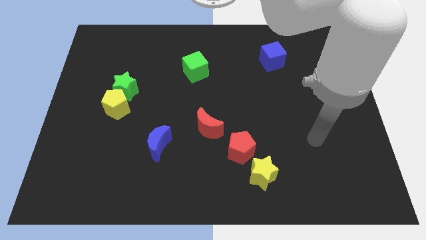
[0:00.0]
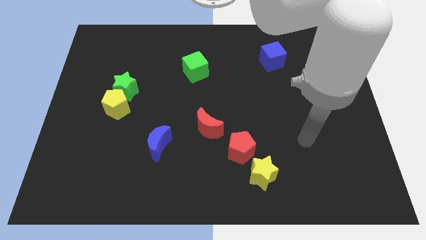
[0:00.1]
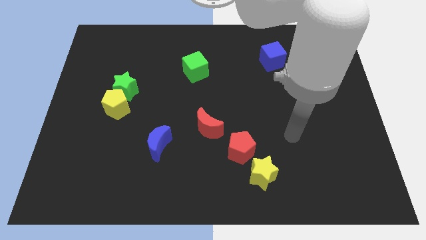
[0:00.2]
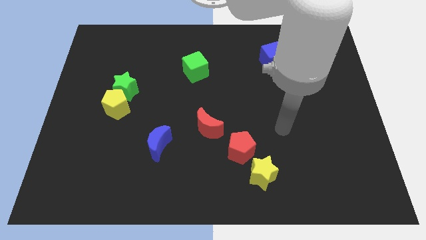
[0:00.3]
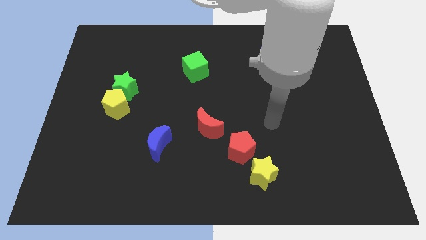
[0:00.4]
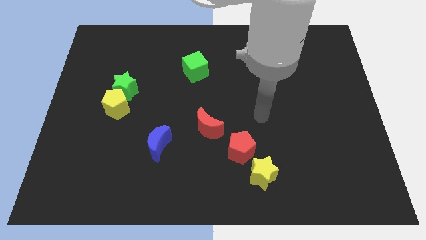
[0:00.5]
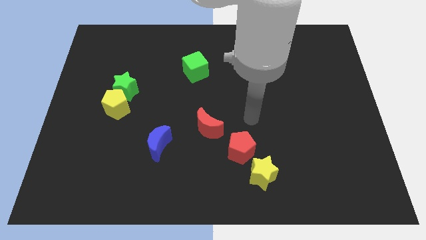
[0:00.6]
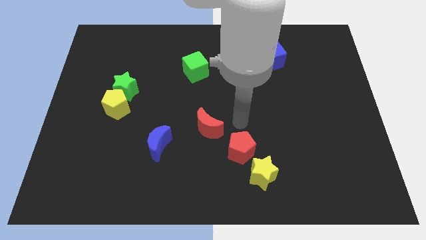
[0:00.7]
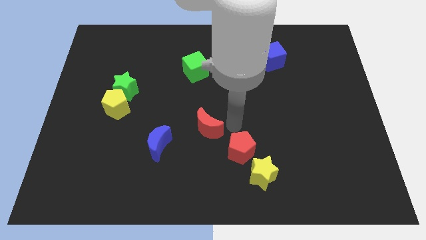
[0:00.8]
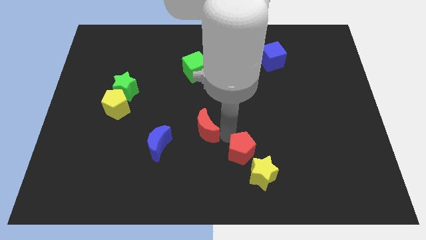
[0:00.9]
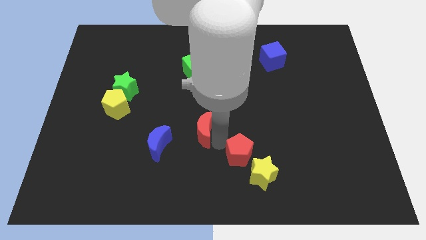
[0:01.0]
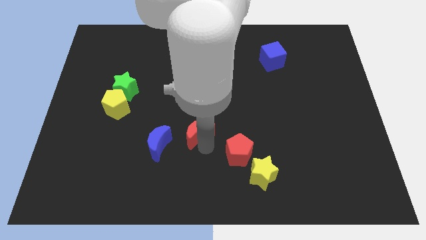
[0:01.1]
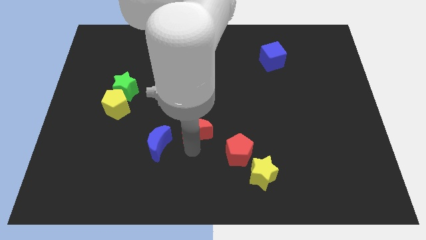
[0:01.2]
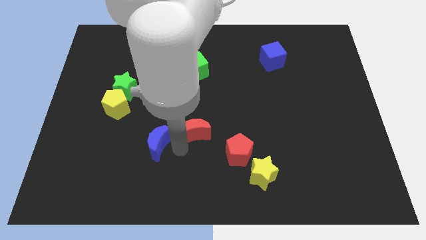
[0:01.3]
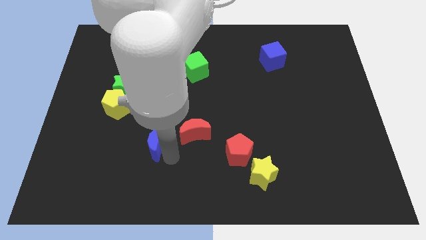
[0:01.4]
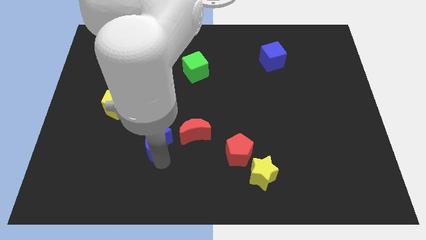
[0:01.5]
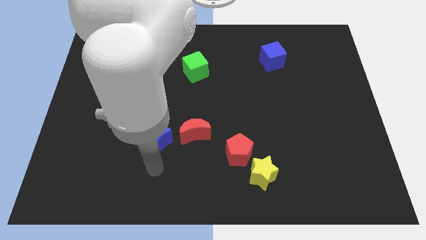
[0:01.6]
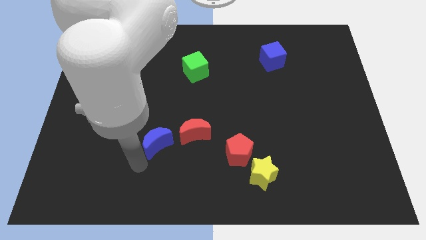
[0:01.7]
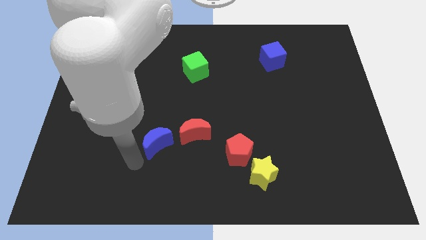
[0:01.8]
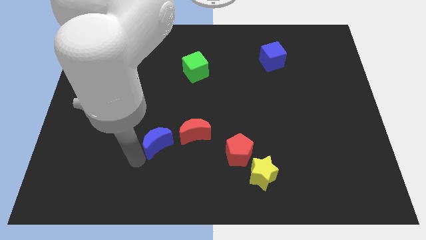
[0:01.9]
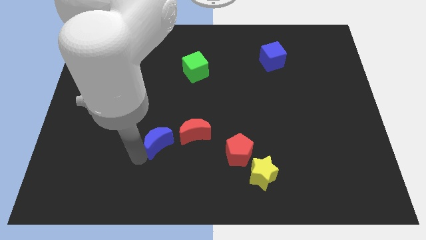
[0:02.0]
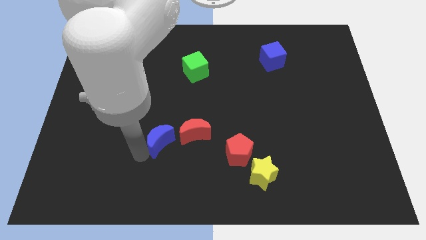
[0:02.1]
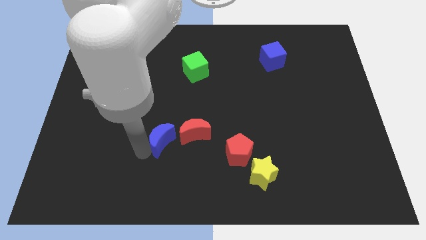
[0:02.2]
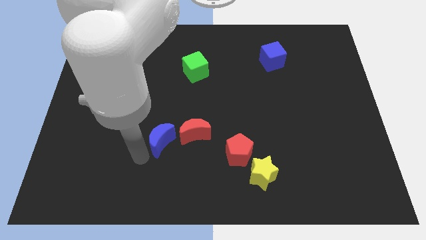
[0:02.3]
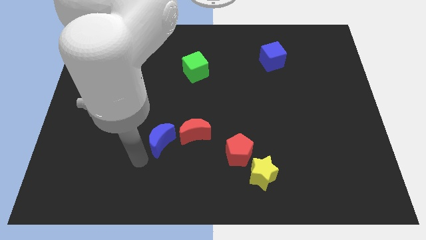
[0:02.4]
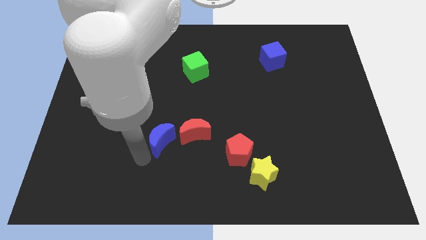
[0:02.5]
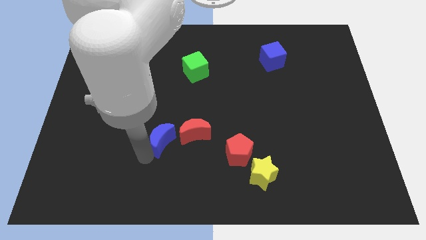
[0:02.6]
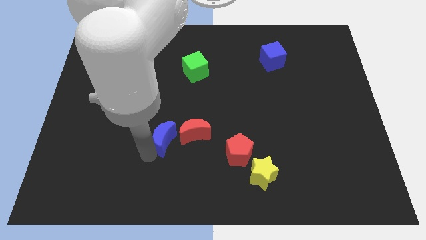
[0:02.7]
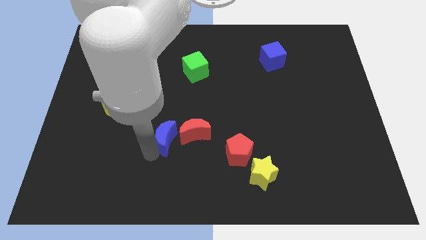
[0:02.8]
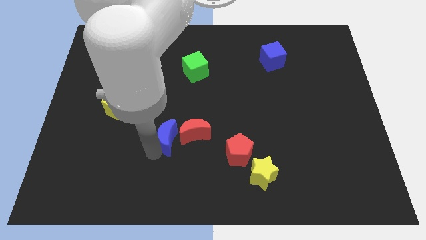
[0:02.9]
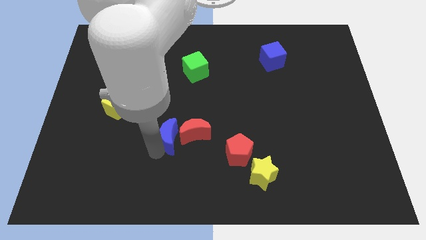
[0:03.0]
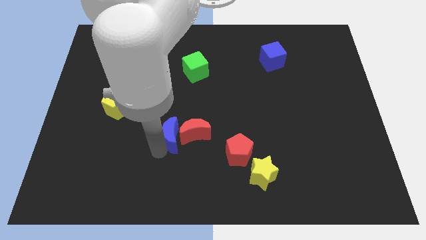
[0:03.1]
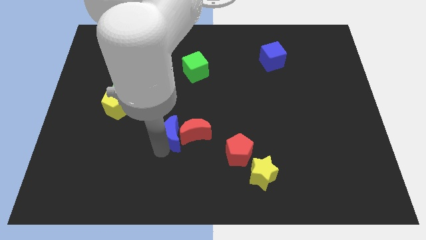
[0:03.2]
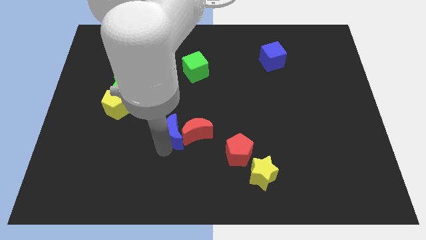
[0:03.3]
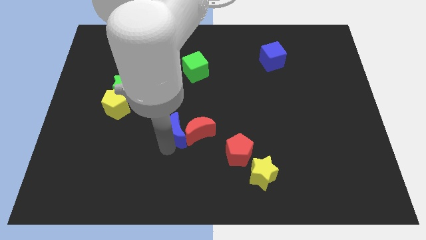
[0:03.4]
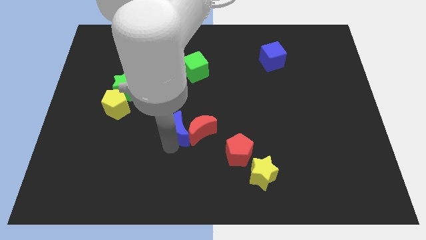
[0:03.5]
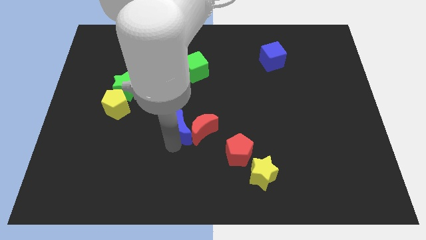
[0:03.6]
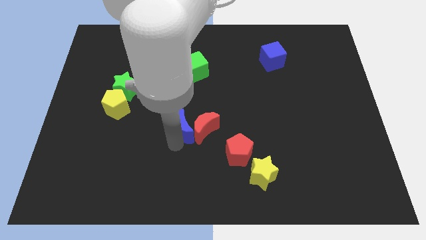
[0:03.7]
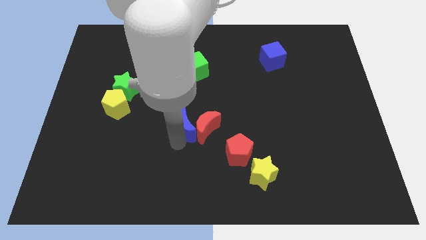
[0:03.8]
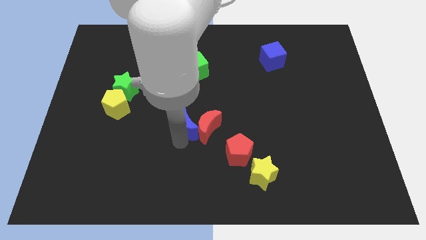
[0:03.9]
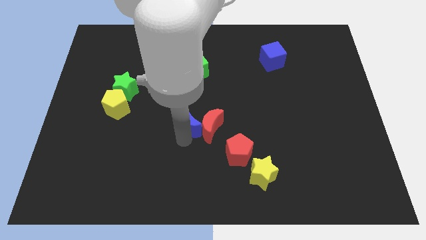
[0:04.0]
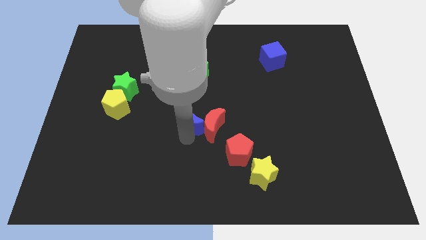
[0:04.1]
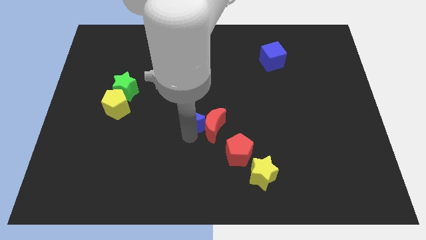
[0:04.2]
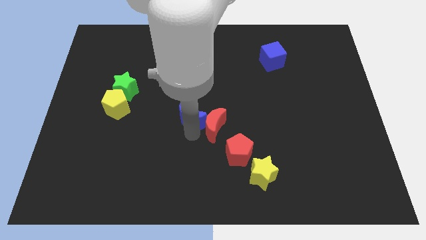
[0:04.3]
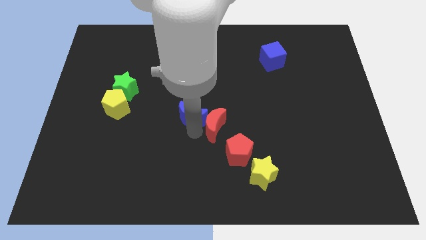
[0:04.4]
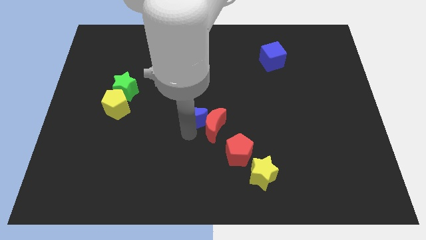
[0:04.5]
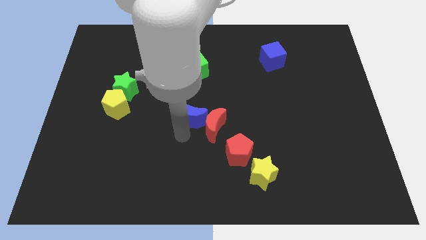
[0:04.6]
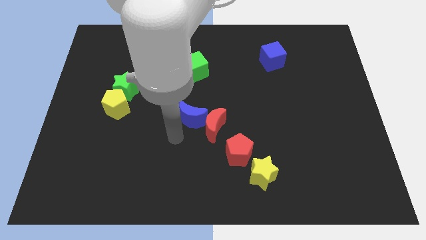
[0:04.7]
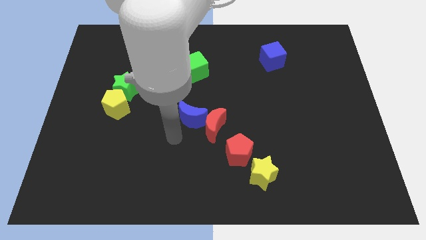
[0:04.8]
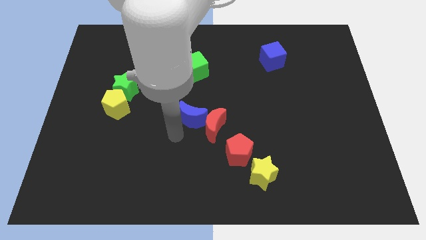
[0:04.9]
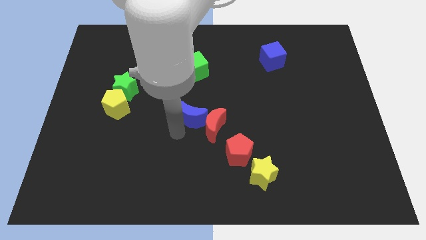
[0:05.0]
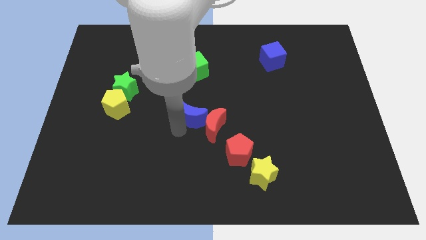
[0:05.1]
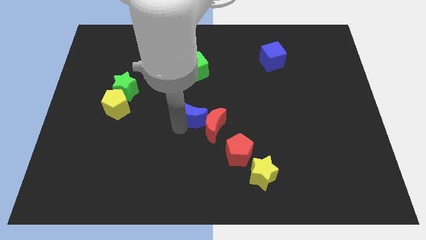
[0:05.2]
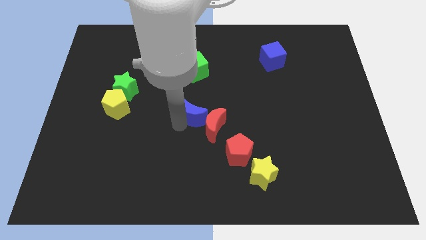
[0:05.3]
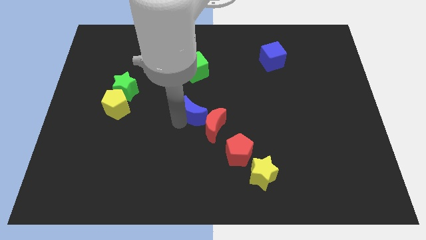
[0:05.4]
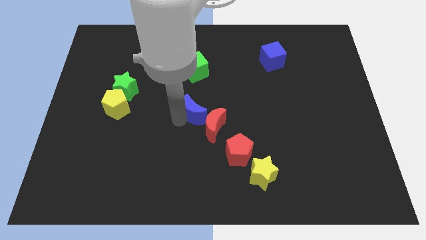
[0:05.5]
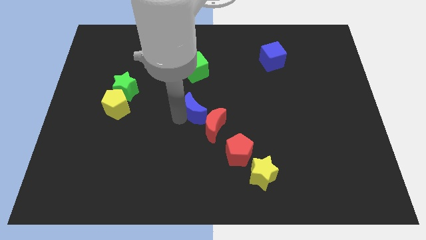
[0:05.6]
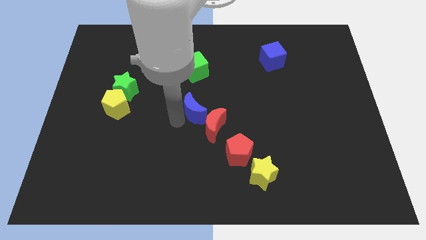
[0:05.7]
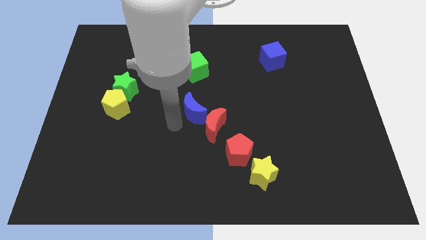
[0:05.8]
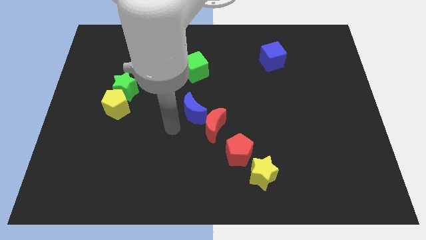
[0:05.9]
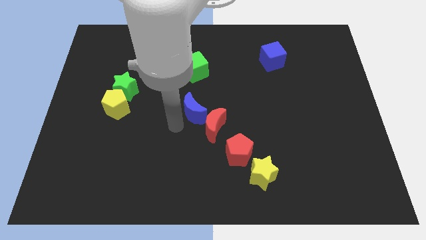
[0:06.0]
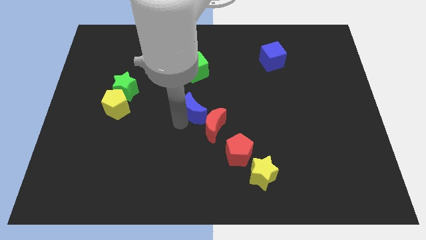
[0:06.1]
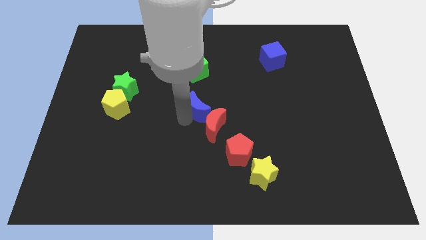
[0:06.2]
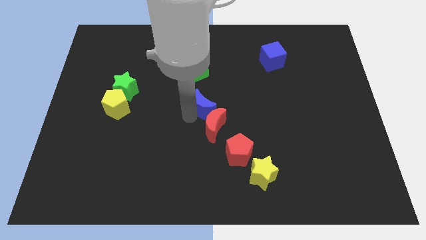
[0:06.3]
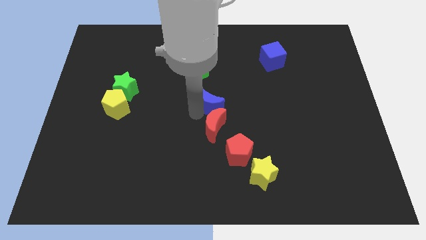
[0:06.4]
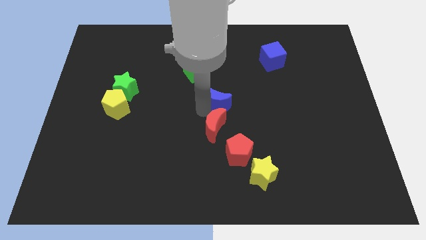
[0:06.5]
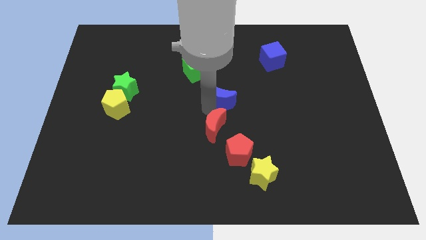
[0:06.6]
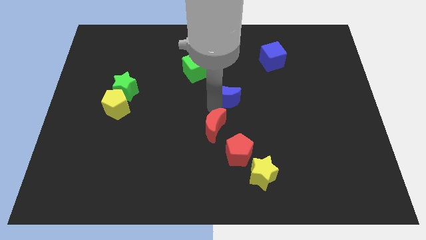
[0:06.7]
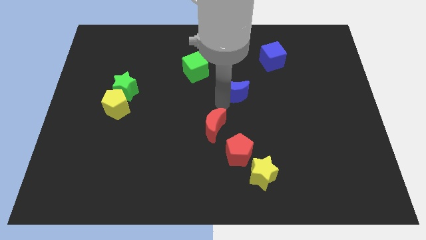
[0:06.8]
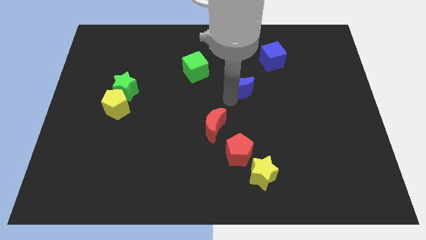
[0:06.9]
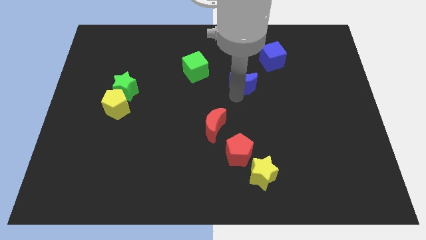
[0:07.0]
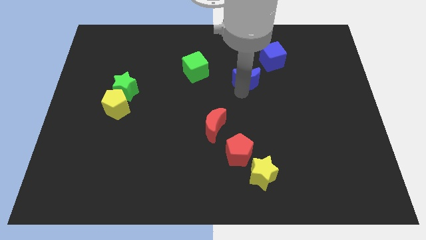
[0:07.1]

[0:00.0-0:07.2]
slide the blue moon just right of the green cube
